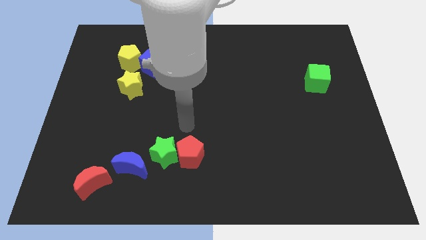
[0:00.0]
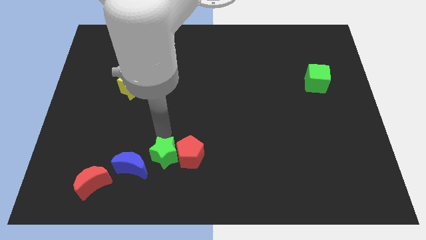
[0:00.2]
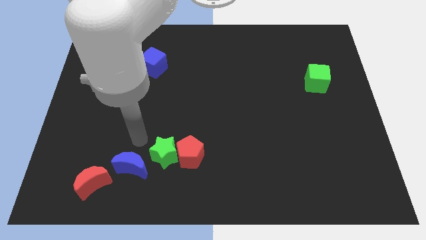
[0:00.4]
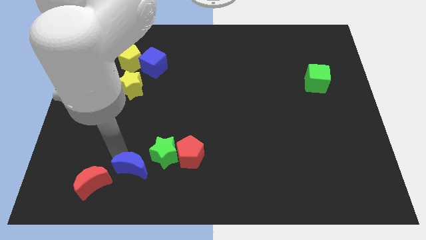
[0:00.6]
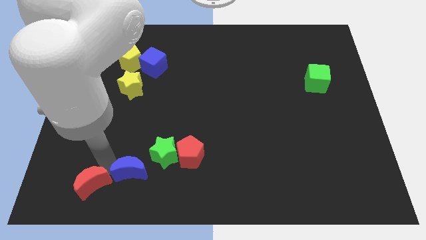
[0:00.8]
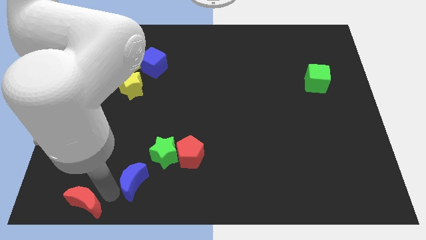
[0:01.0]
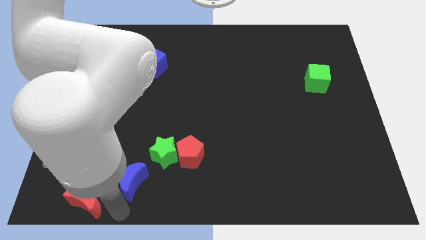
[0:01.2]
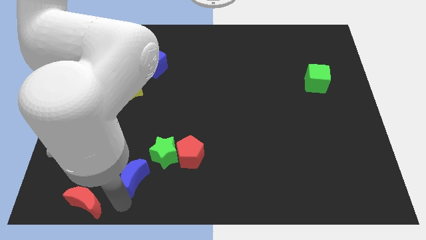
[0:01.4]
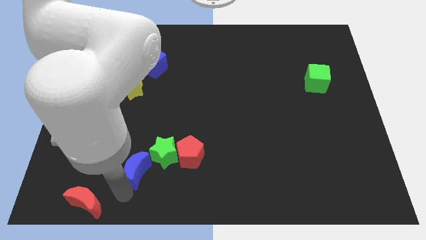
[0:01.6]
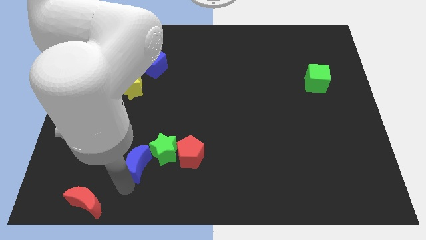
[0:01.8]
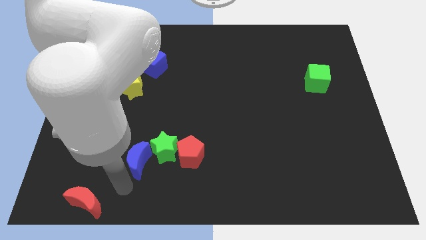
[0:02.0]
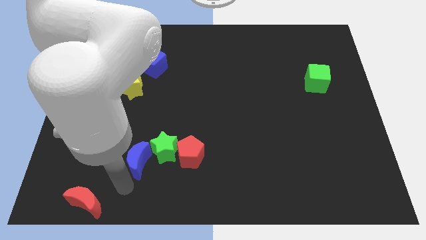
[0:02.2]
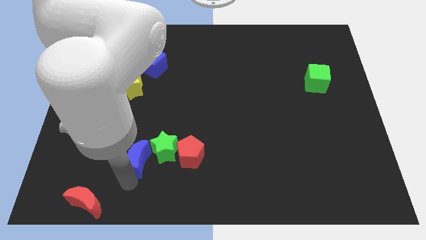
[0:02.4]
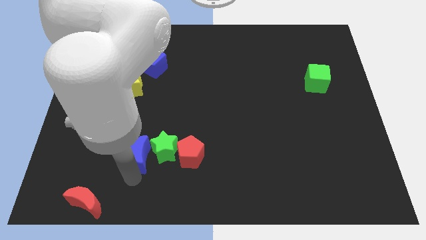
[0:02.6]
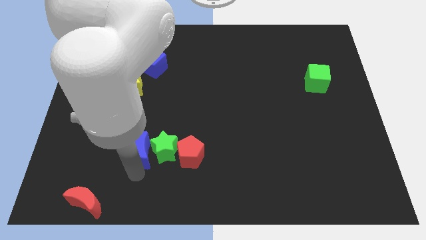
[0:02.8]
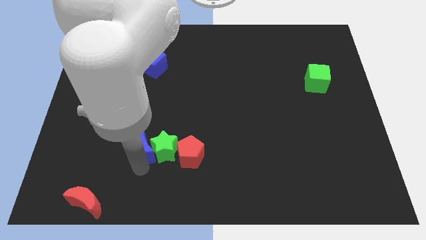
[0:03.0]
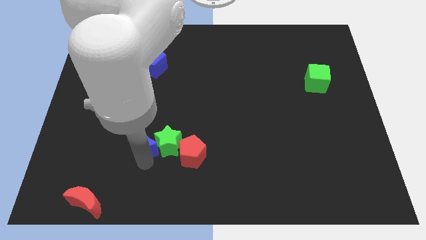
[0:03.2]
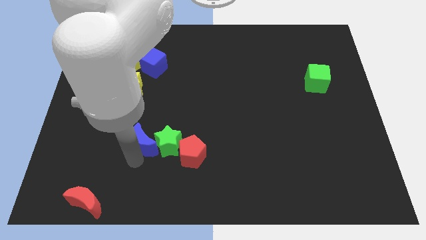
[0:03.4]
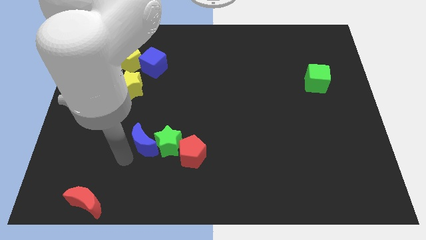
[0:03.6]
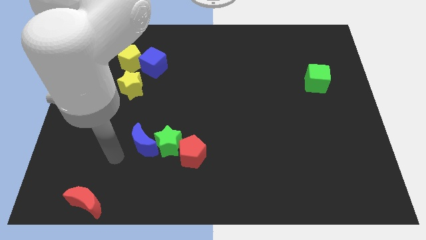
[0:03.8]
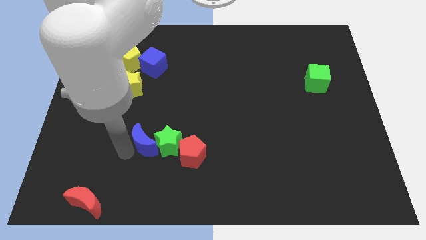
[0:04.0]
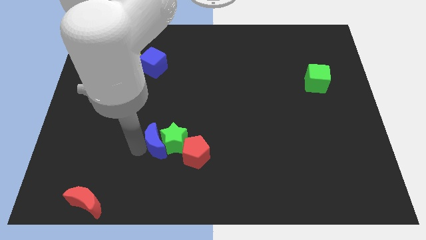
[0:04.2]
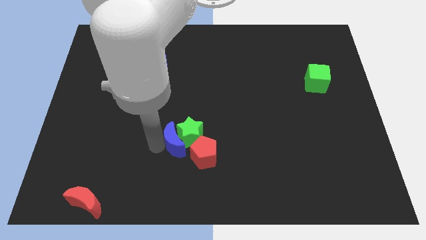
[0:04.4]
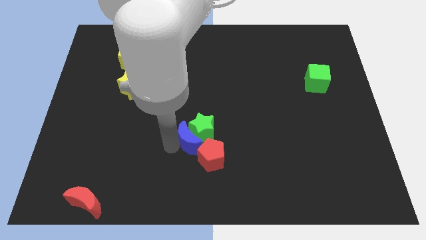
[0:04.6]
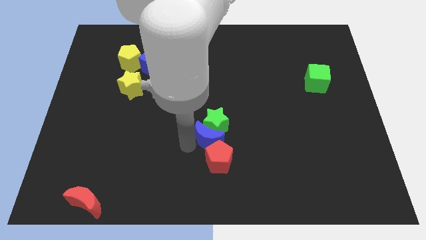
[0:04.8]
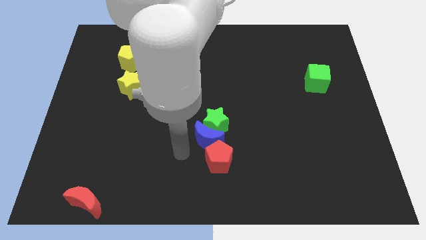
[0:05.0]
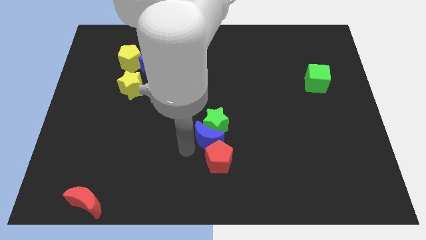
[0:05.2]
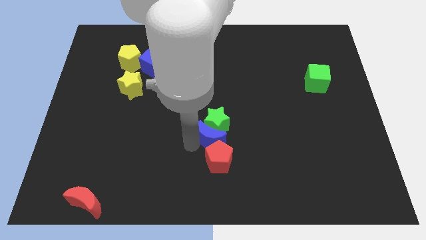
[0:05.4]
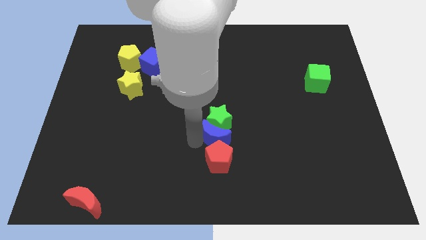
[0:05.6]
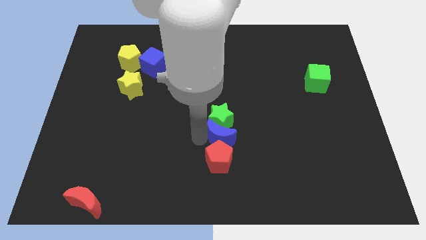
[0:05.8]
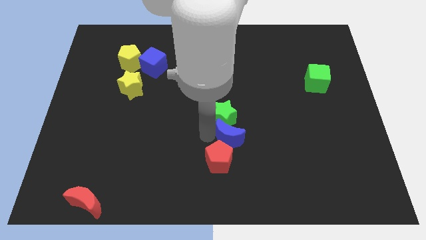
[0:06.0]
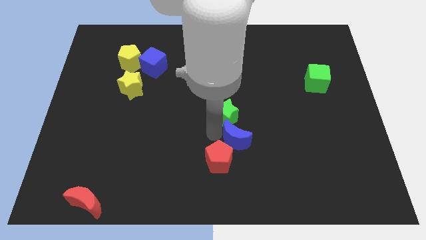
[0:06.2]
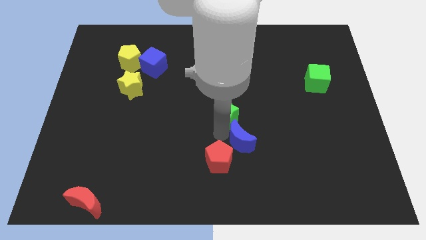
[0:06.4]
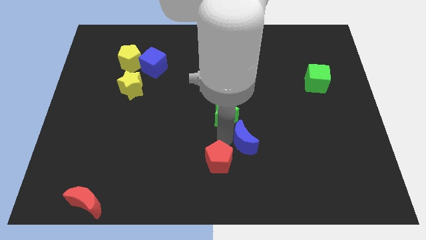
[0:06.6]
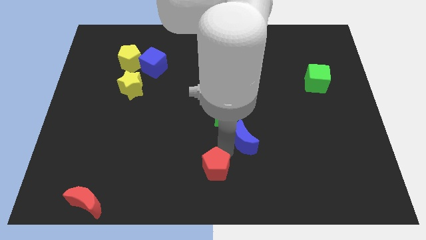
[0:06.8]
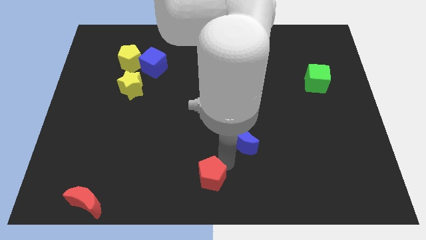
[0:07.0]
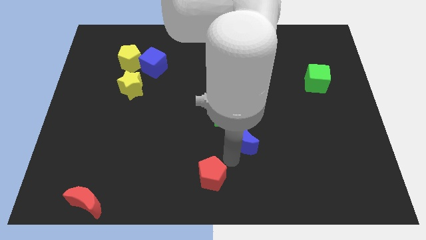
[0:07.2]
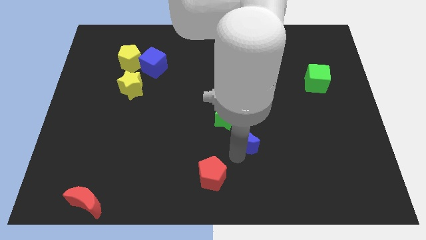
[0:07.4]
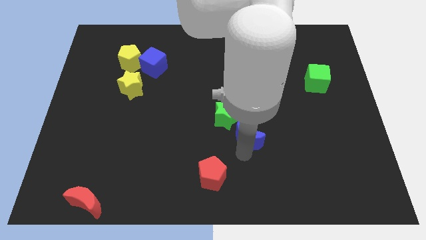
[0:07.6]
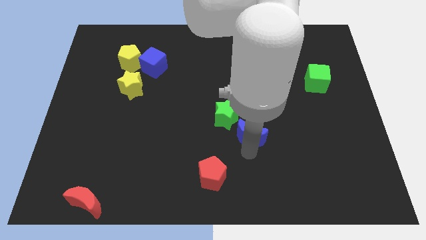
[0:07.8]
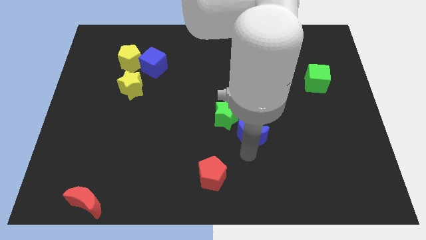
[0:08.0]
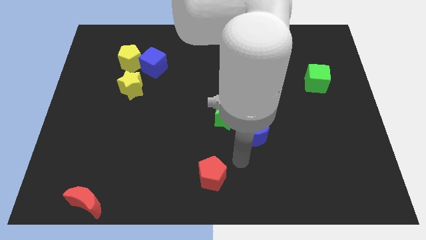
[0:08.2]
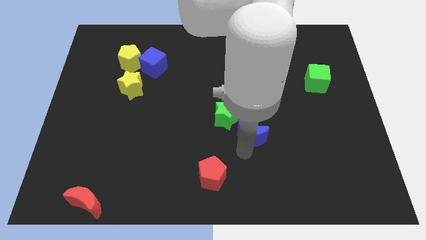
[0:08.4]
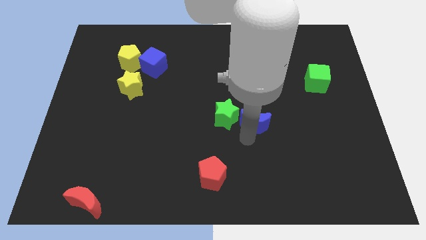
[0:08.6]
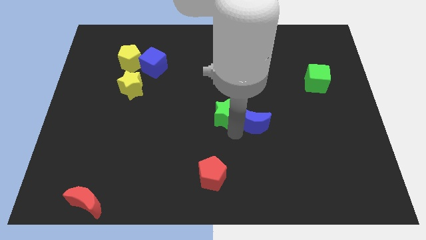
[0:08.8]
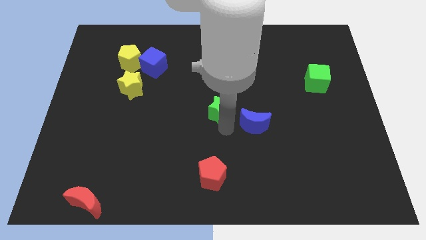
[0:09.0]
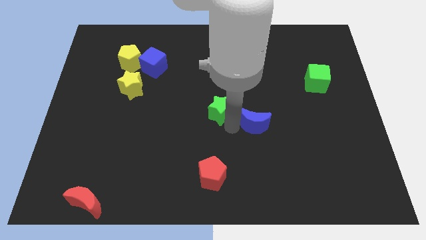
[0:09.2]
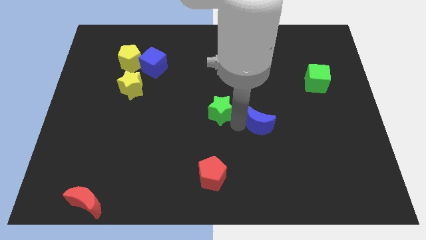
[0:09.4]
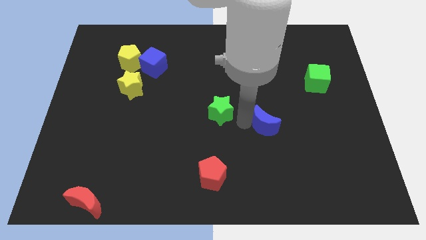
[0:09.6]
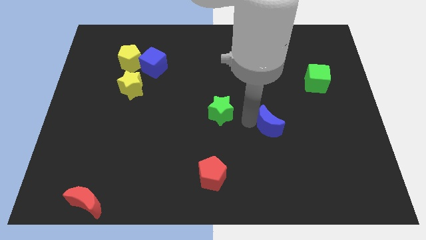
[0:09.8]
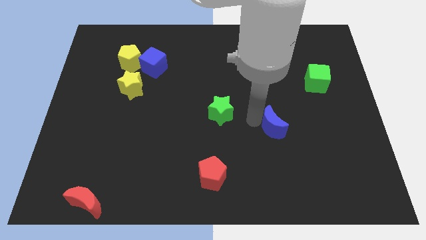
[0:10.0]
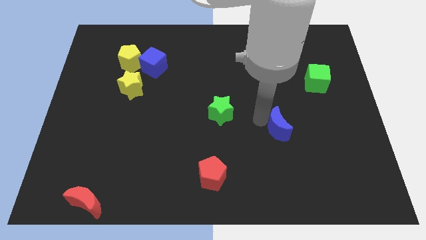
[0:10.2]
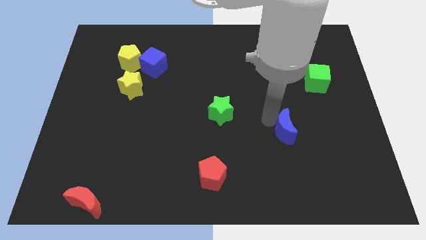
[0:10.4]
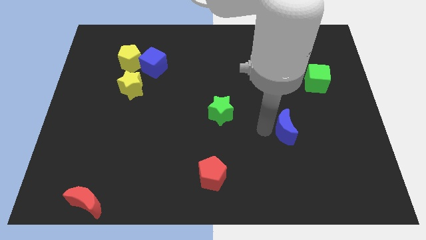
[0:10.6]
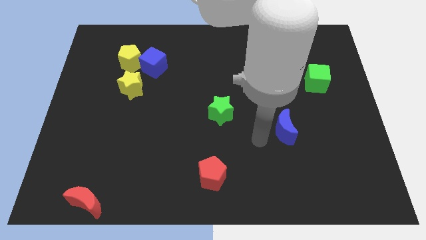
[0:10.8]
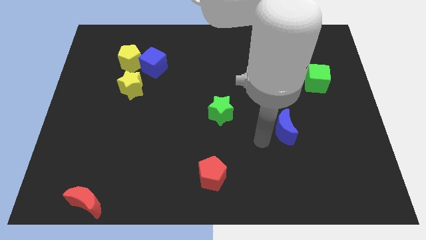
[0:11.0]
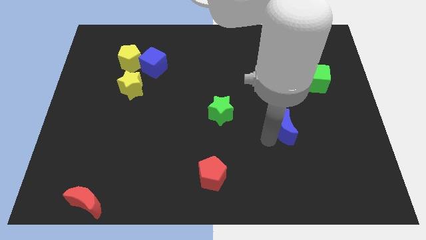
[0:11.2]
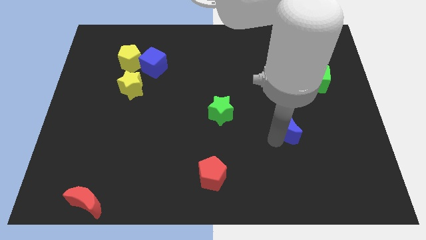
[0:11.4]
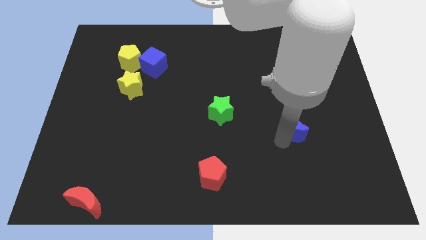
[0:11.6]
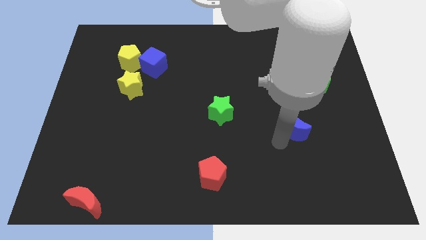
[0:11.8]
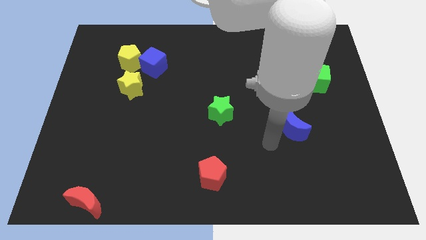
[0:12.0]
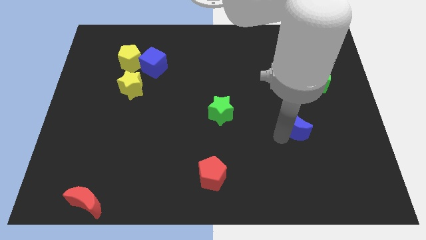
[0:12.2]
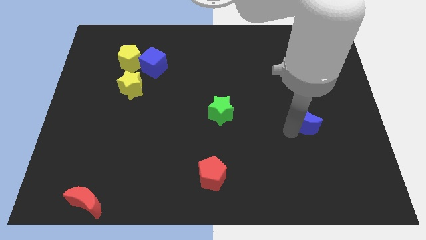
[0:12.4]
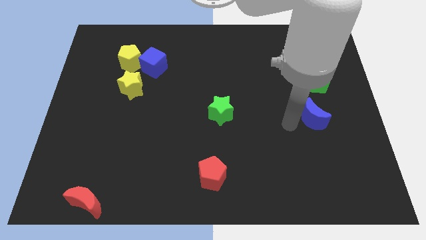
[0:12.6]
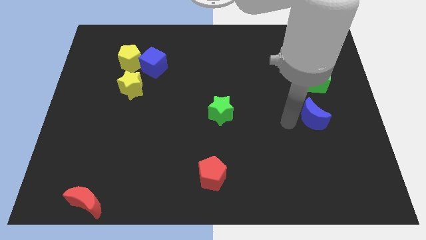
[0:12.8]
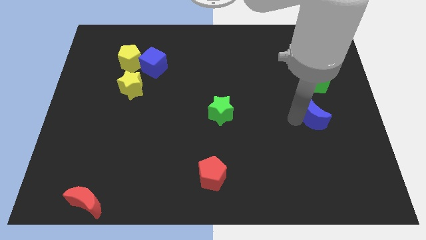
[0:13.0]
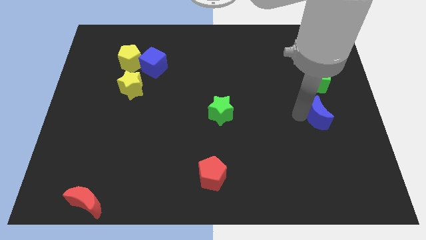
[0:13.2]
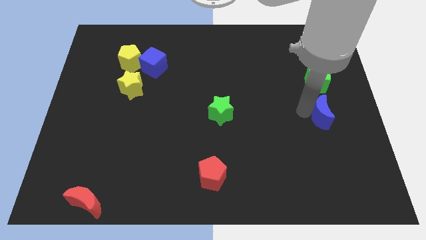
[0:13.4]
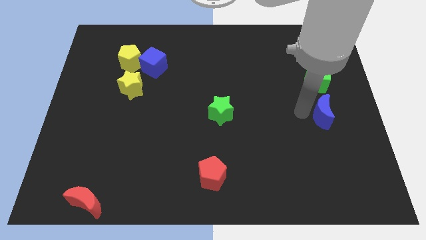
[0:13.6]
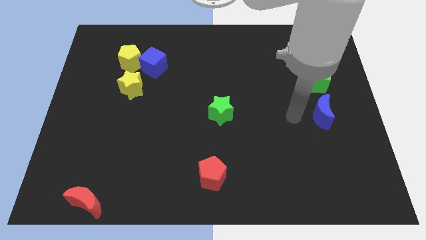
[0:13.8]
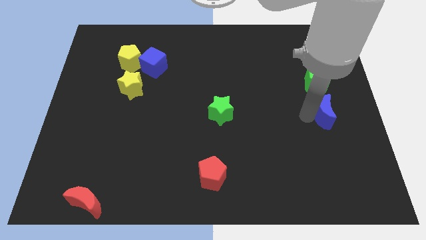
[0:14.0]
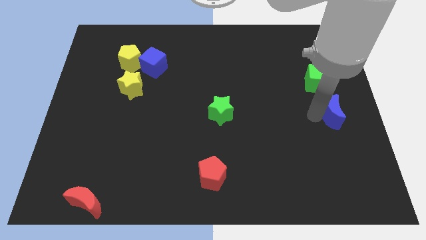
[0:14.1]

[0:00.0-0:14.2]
put the blue moon to the right side

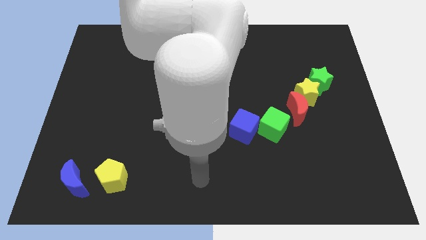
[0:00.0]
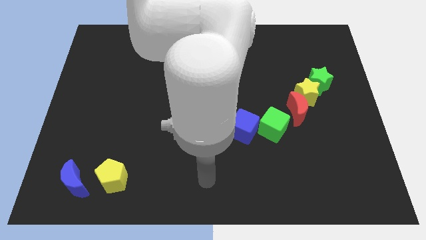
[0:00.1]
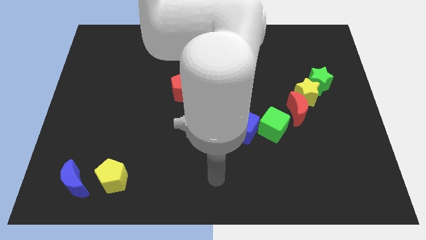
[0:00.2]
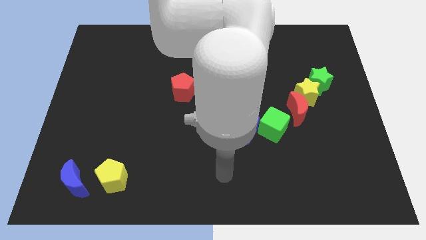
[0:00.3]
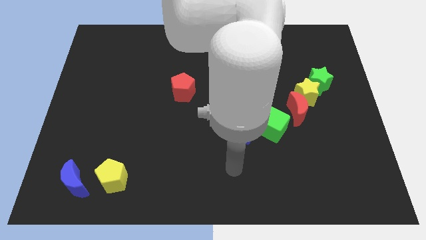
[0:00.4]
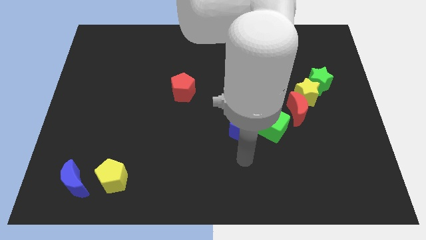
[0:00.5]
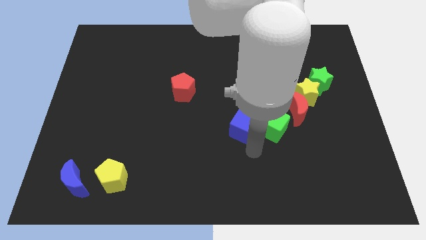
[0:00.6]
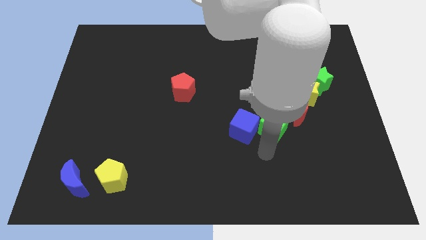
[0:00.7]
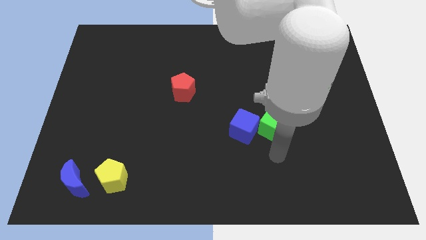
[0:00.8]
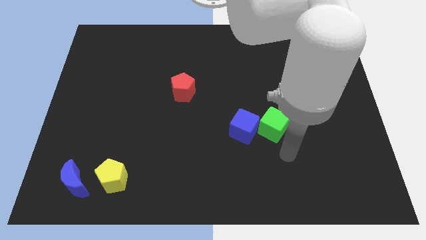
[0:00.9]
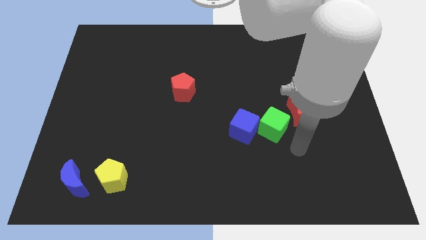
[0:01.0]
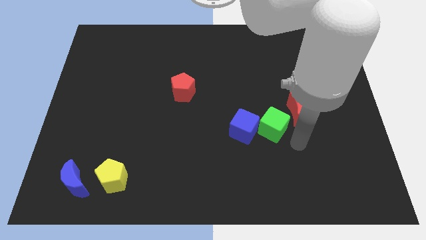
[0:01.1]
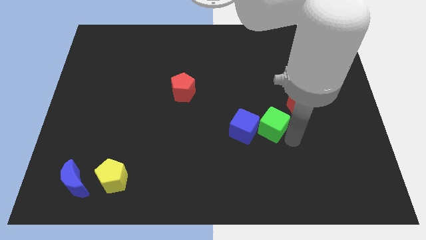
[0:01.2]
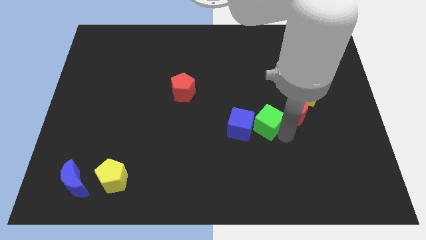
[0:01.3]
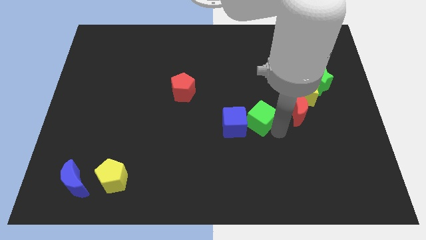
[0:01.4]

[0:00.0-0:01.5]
slide the green cube to the middle of the board
